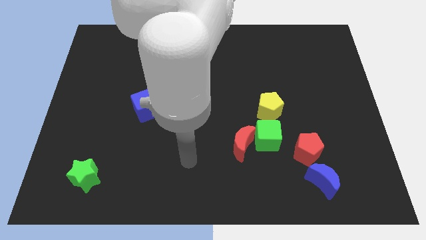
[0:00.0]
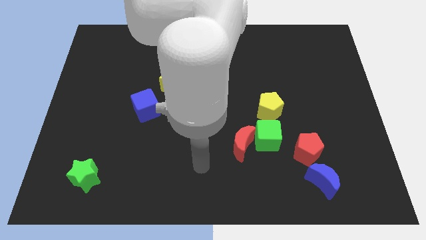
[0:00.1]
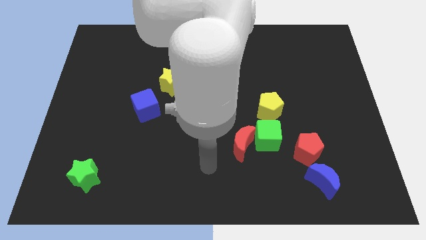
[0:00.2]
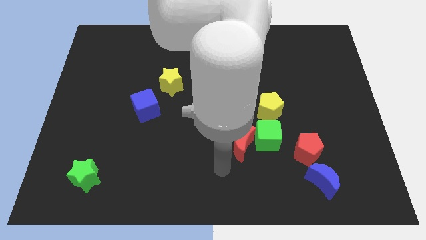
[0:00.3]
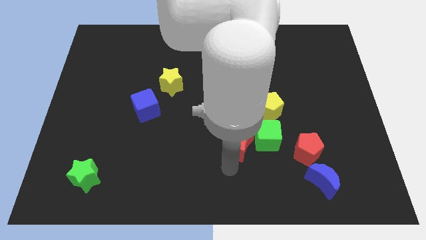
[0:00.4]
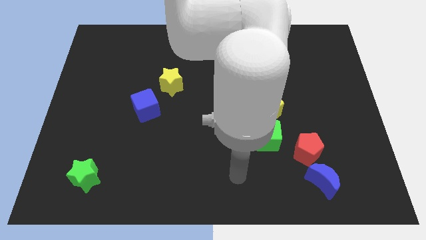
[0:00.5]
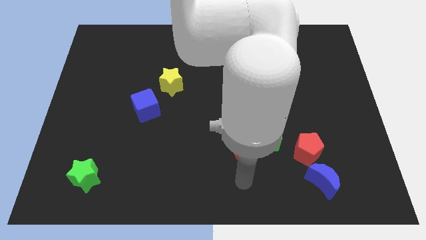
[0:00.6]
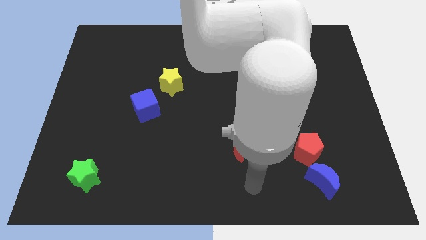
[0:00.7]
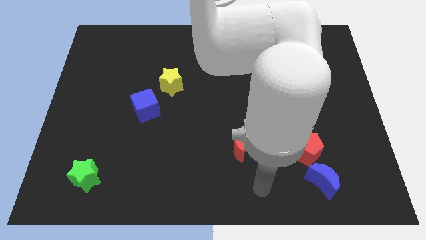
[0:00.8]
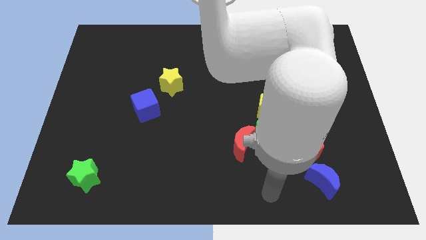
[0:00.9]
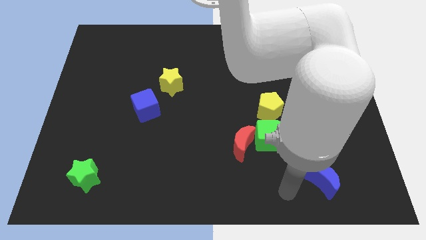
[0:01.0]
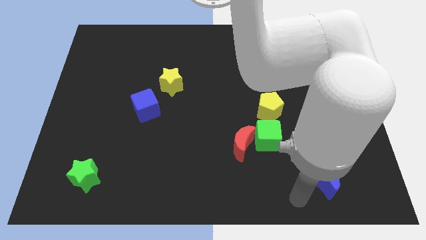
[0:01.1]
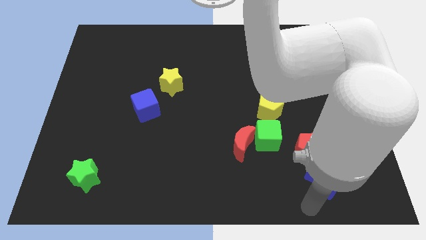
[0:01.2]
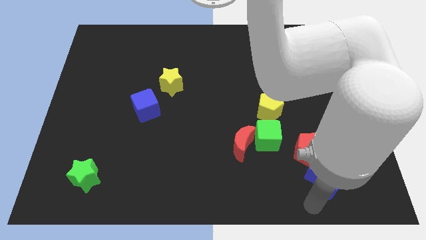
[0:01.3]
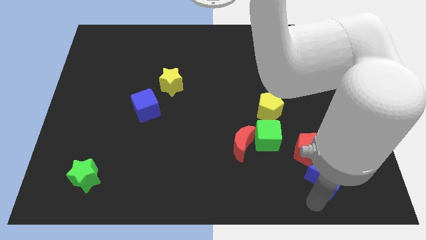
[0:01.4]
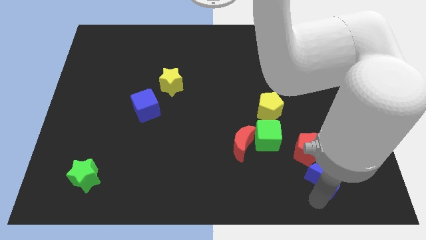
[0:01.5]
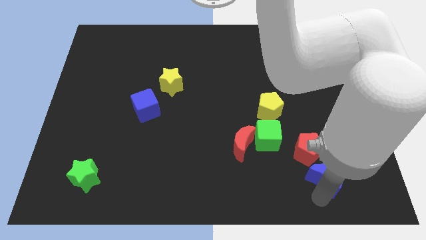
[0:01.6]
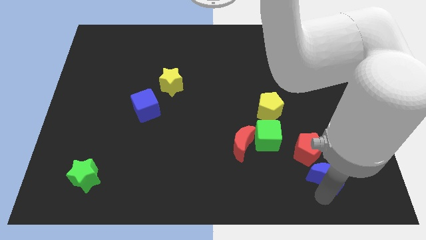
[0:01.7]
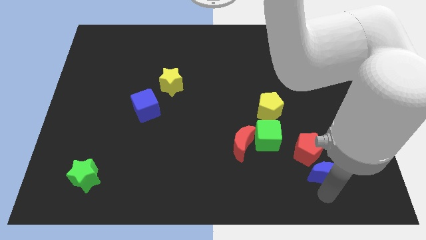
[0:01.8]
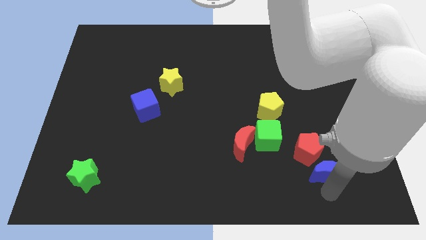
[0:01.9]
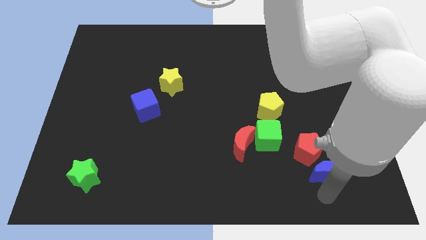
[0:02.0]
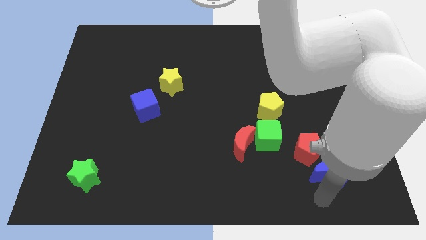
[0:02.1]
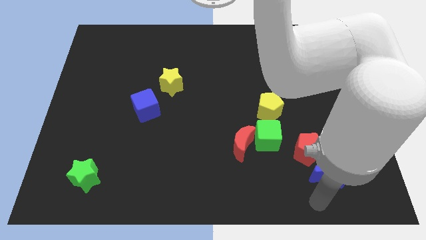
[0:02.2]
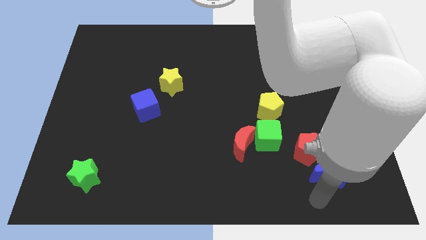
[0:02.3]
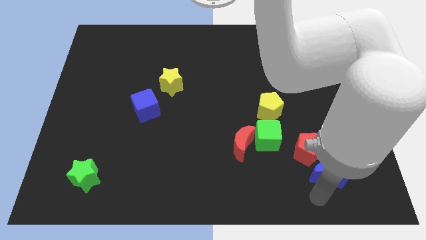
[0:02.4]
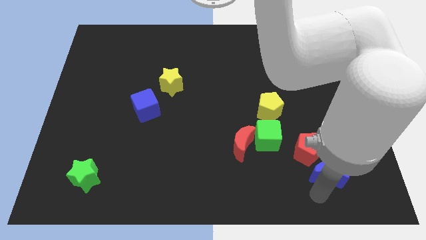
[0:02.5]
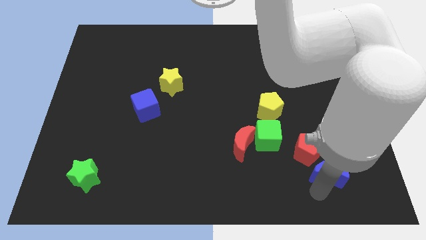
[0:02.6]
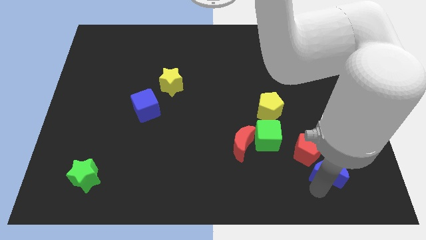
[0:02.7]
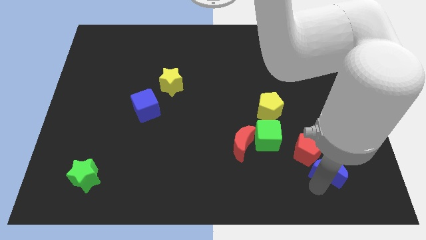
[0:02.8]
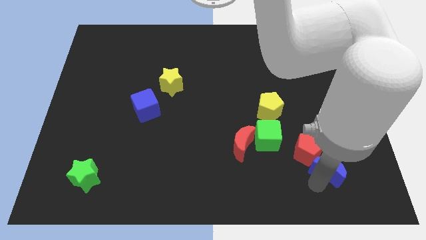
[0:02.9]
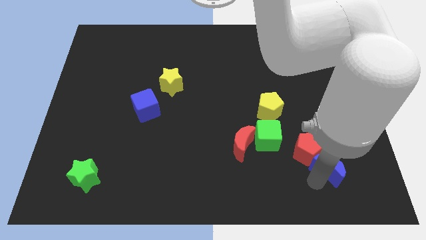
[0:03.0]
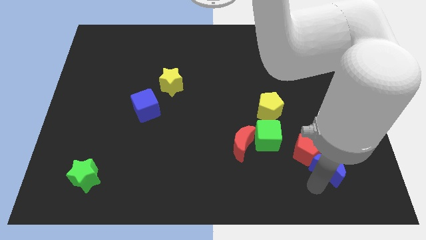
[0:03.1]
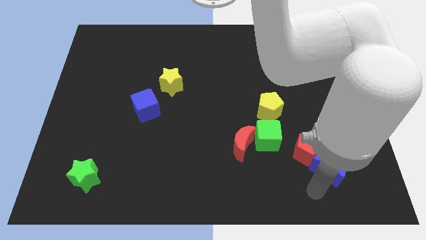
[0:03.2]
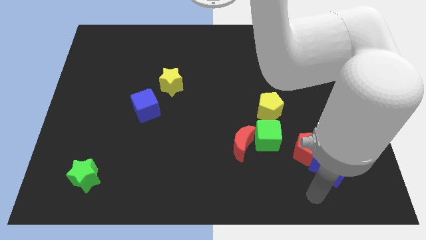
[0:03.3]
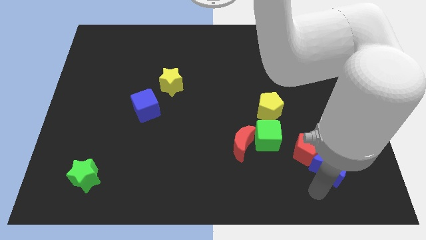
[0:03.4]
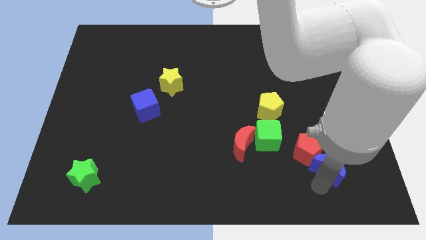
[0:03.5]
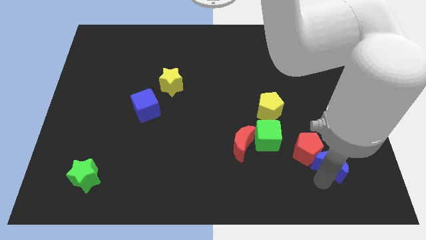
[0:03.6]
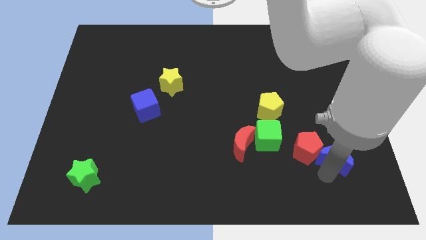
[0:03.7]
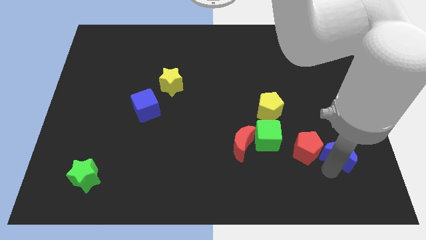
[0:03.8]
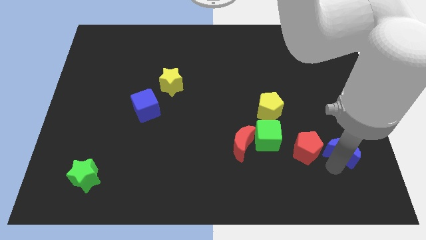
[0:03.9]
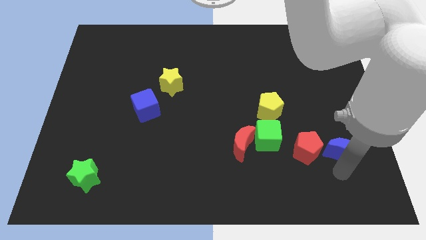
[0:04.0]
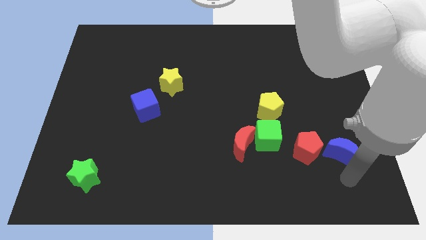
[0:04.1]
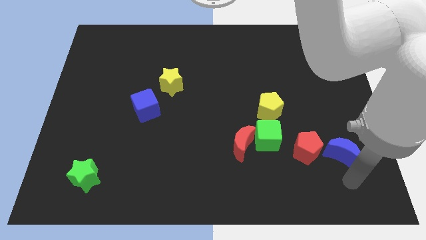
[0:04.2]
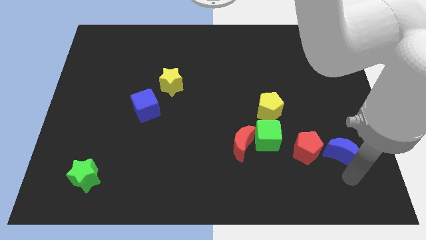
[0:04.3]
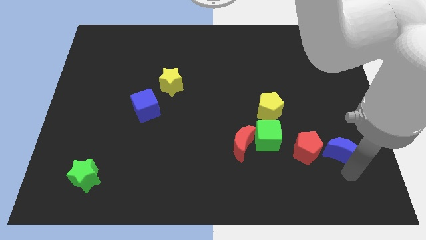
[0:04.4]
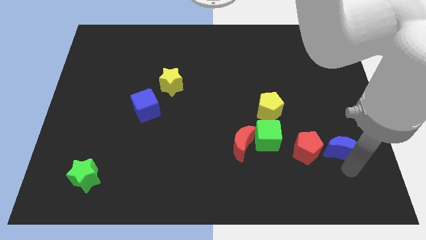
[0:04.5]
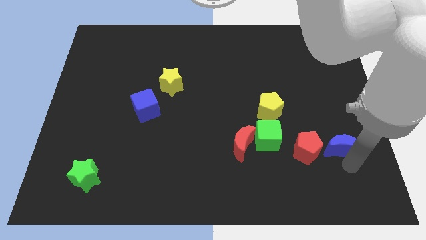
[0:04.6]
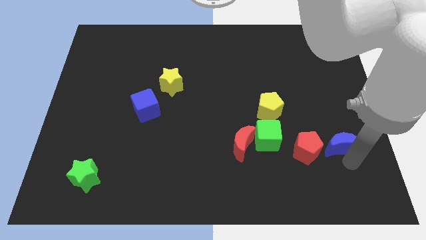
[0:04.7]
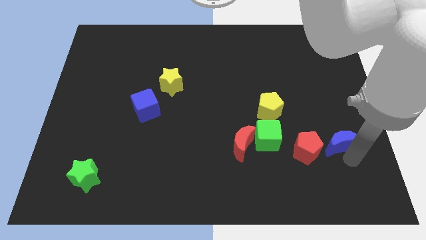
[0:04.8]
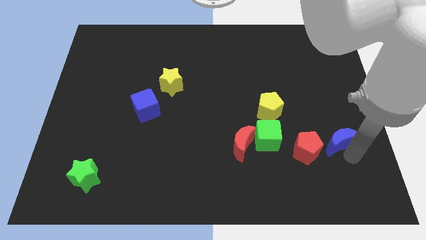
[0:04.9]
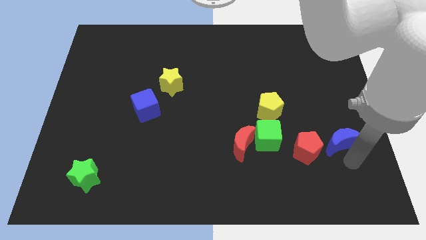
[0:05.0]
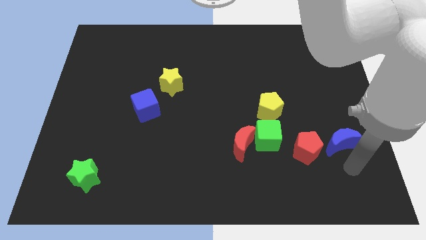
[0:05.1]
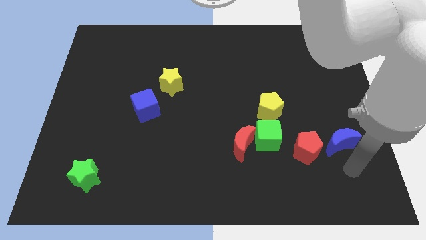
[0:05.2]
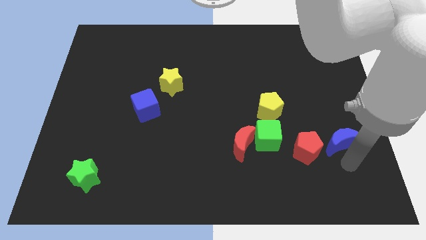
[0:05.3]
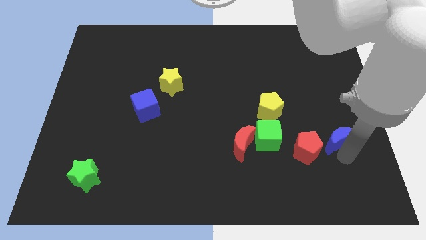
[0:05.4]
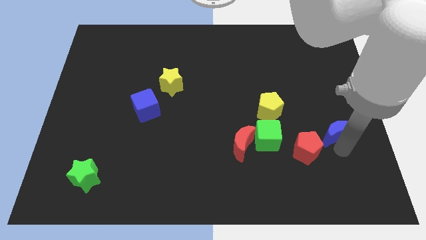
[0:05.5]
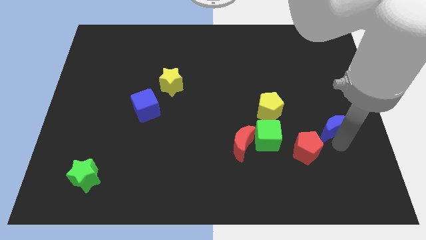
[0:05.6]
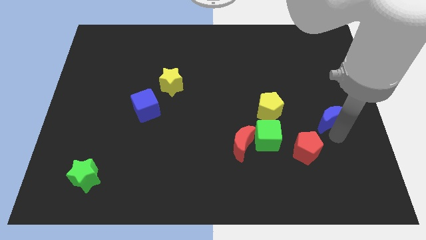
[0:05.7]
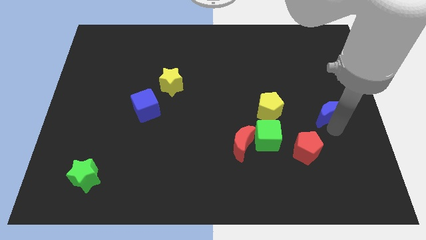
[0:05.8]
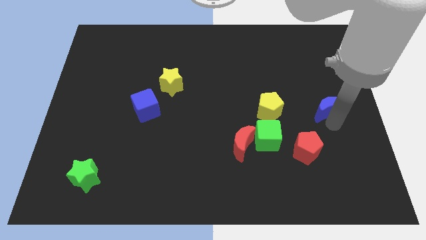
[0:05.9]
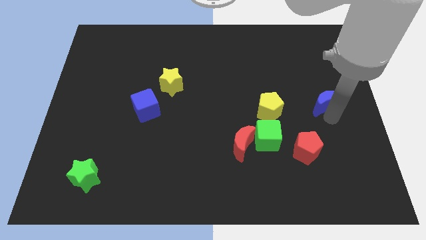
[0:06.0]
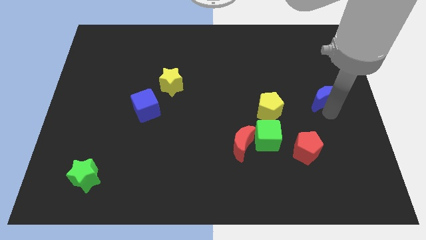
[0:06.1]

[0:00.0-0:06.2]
slide the blue moon upwards

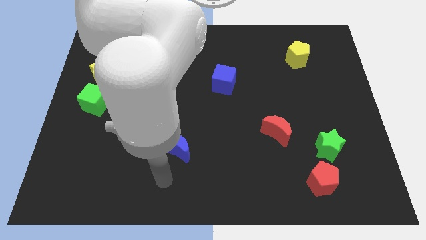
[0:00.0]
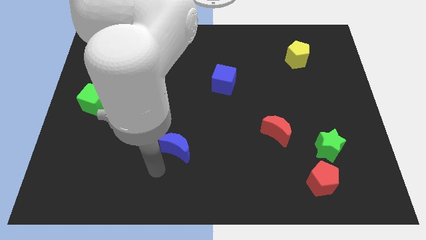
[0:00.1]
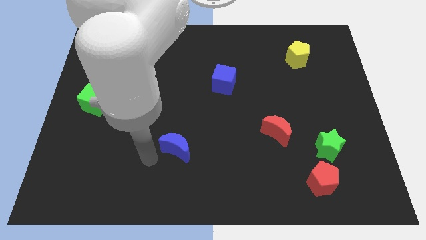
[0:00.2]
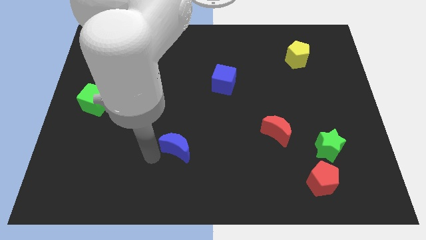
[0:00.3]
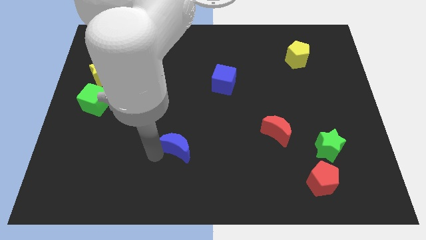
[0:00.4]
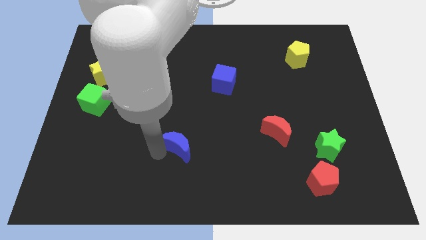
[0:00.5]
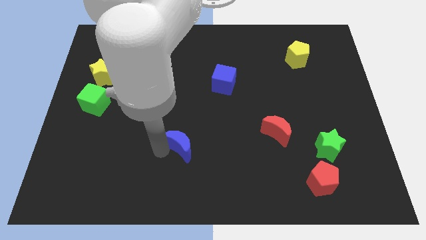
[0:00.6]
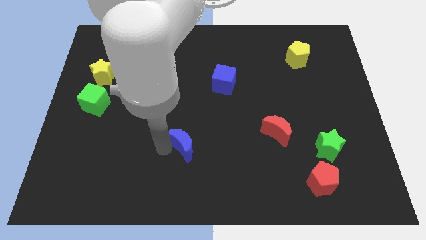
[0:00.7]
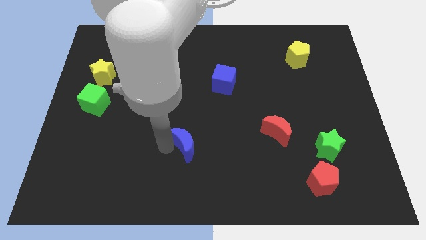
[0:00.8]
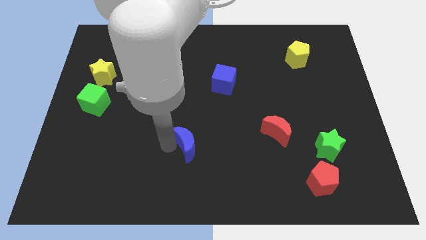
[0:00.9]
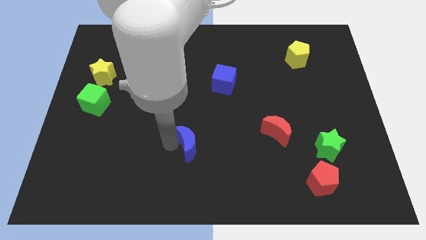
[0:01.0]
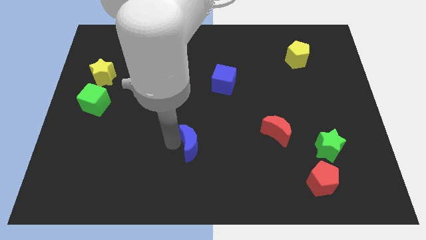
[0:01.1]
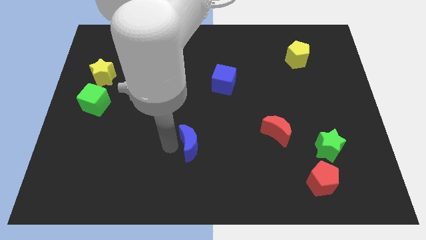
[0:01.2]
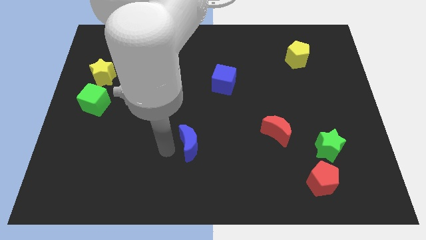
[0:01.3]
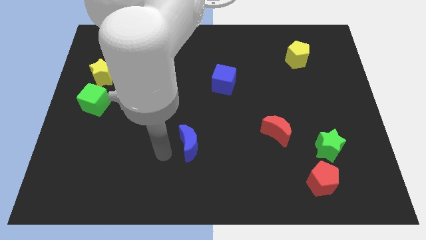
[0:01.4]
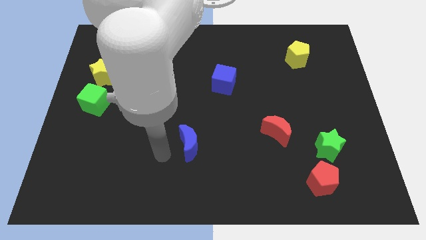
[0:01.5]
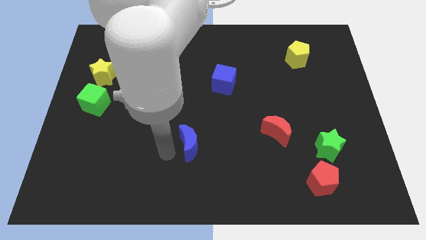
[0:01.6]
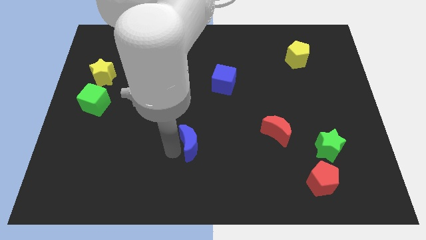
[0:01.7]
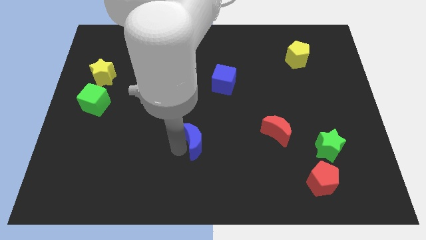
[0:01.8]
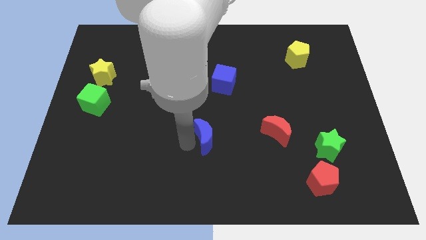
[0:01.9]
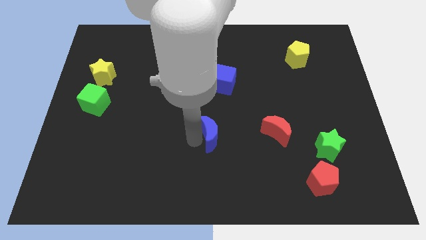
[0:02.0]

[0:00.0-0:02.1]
push the blue moon a little bit to the right
